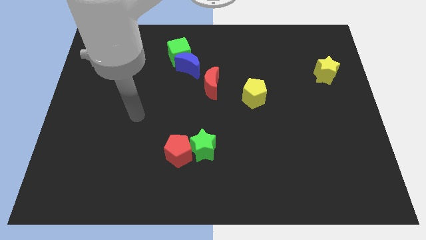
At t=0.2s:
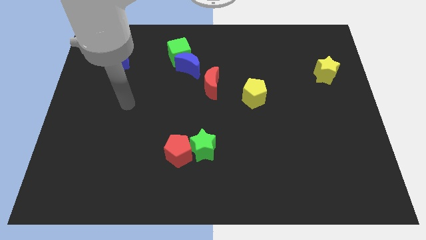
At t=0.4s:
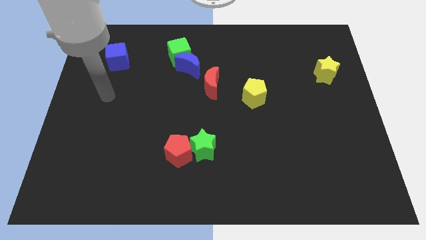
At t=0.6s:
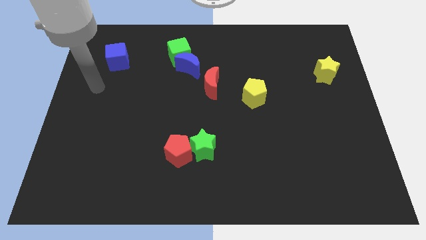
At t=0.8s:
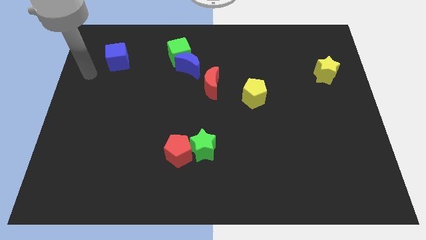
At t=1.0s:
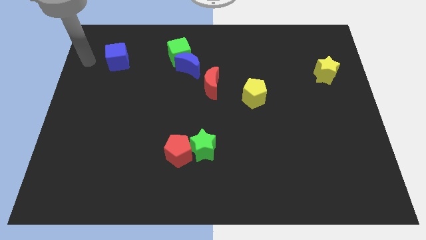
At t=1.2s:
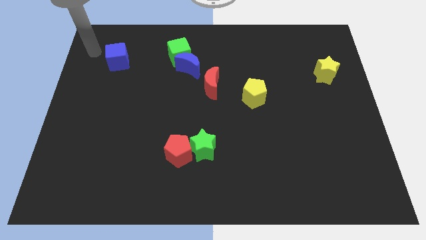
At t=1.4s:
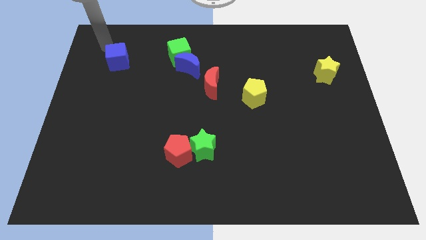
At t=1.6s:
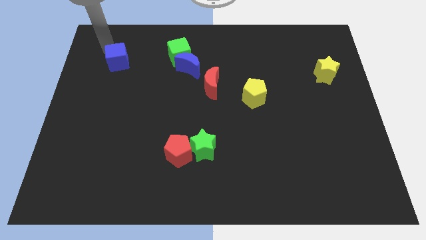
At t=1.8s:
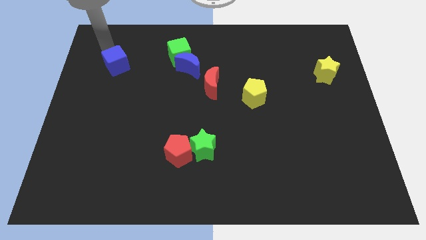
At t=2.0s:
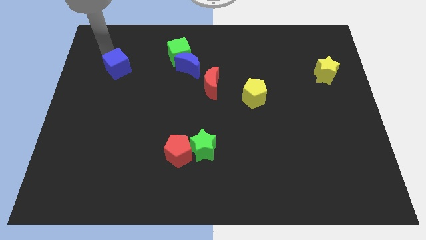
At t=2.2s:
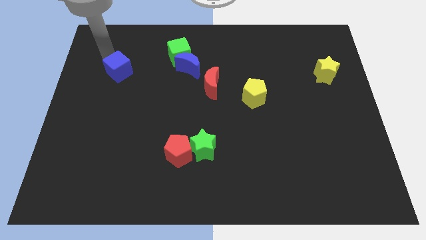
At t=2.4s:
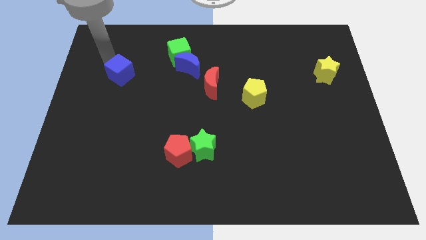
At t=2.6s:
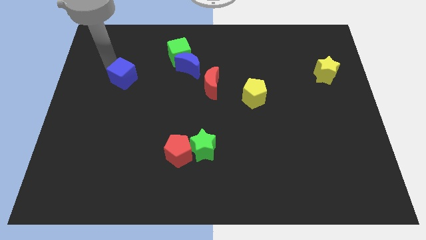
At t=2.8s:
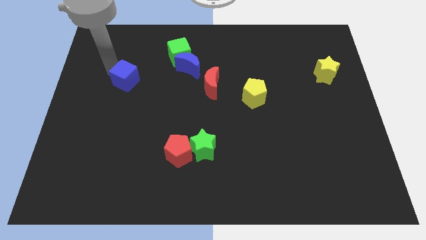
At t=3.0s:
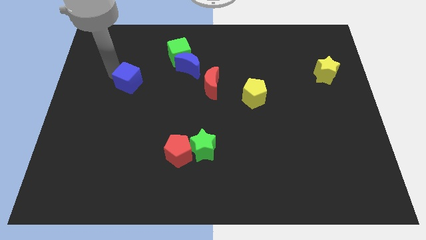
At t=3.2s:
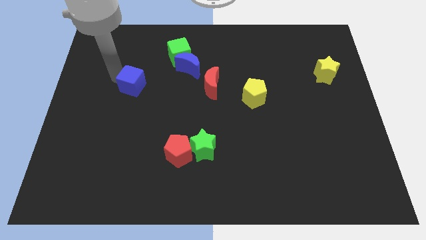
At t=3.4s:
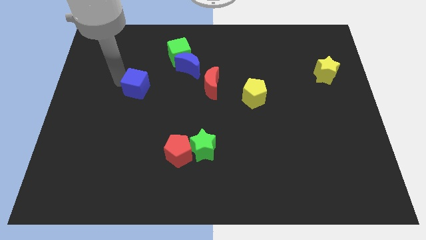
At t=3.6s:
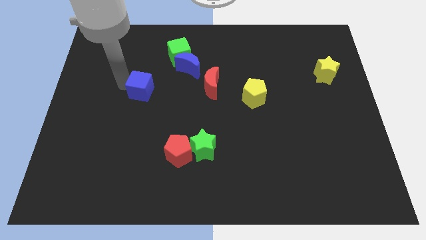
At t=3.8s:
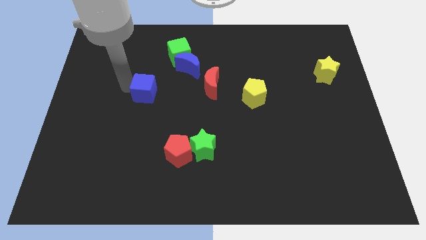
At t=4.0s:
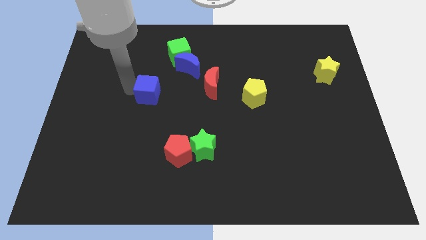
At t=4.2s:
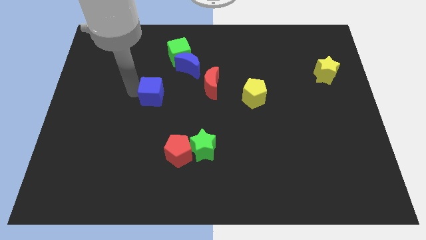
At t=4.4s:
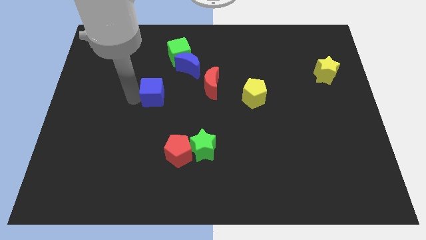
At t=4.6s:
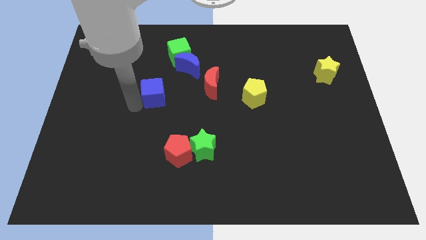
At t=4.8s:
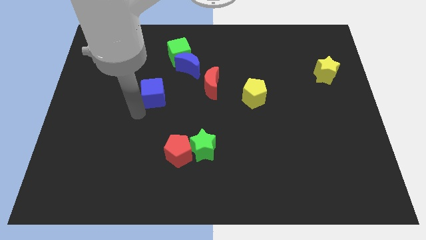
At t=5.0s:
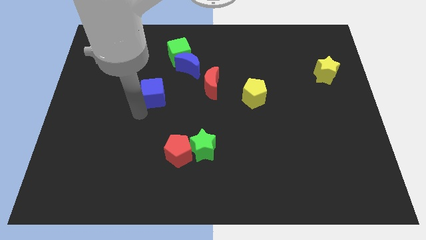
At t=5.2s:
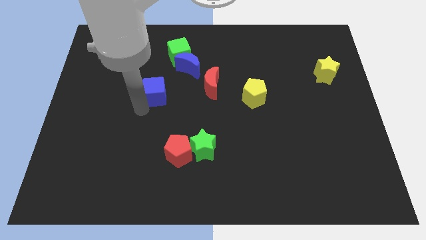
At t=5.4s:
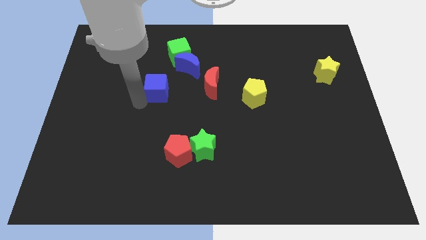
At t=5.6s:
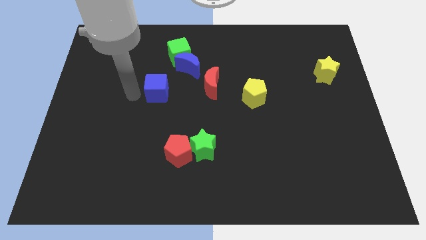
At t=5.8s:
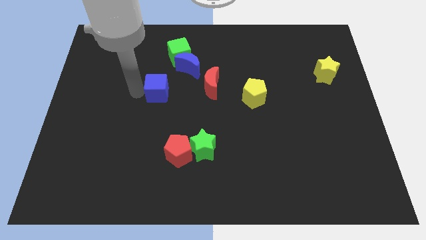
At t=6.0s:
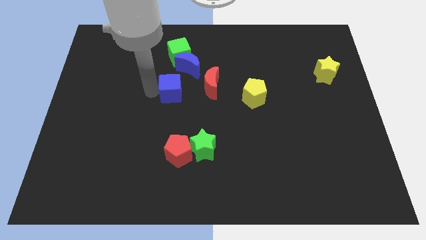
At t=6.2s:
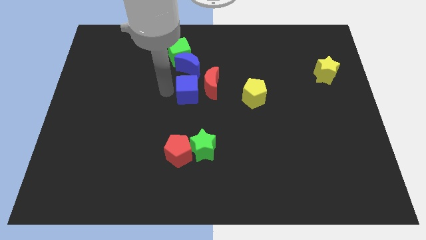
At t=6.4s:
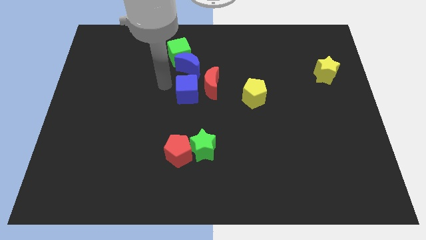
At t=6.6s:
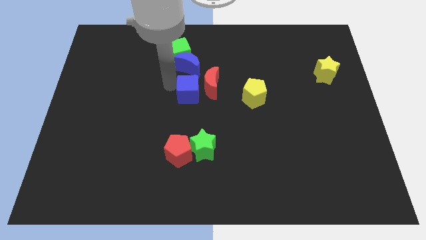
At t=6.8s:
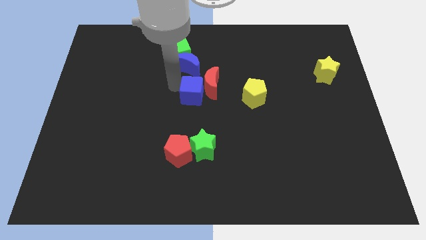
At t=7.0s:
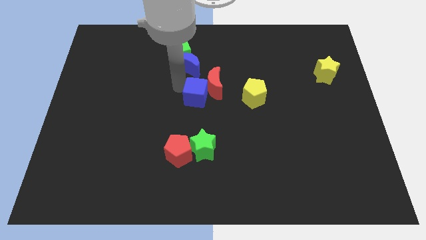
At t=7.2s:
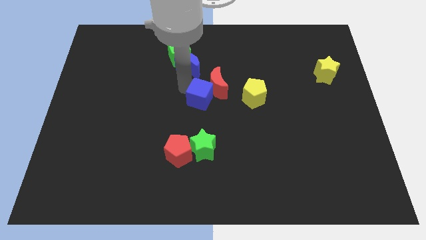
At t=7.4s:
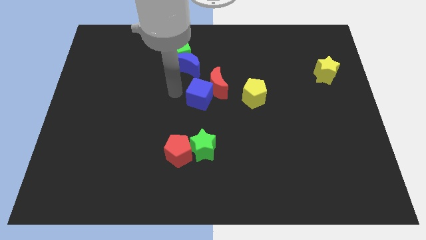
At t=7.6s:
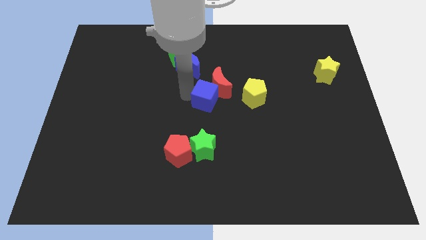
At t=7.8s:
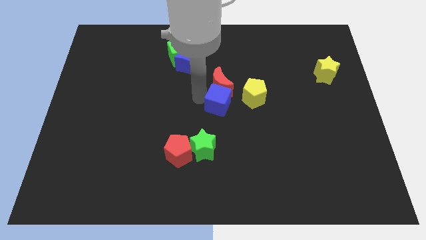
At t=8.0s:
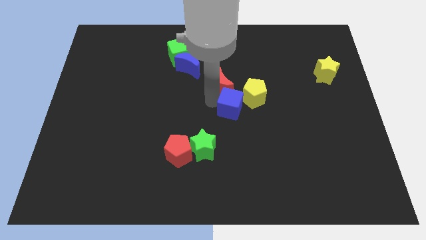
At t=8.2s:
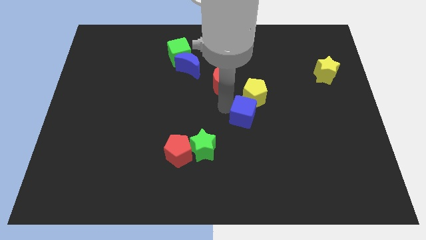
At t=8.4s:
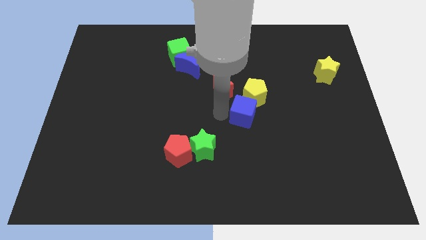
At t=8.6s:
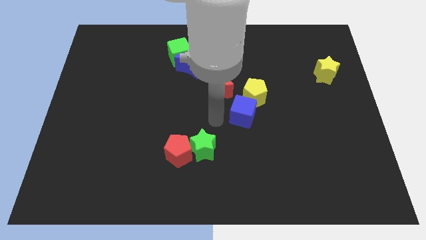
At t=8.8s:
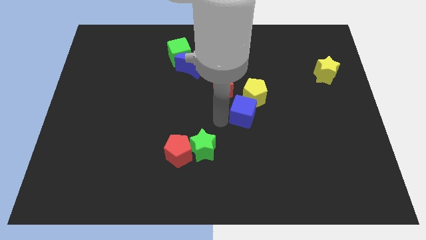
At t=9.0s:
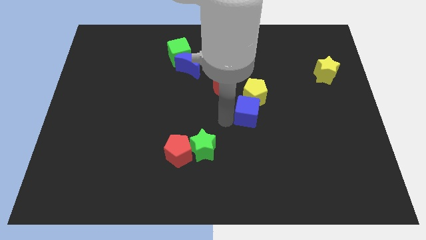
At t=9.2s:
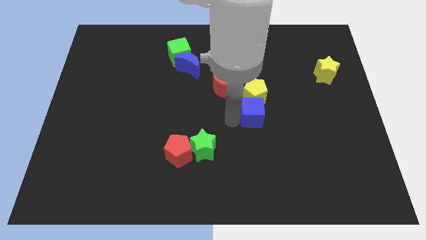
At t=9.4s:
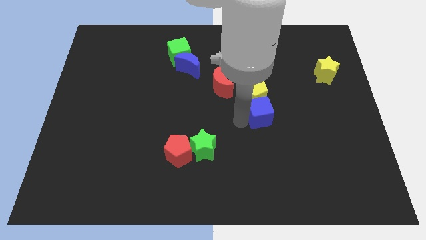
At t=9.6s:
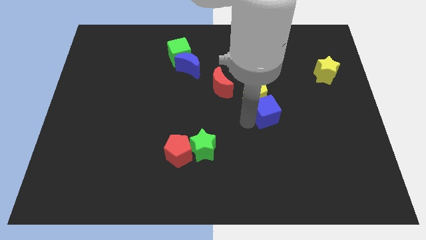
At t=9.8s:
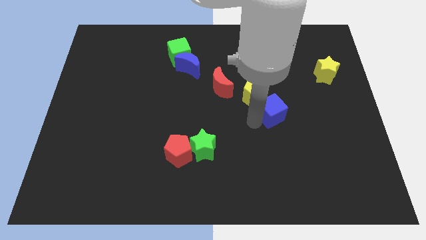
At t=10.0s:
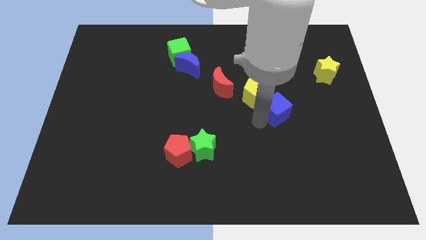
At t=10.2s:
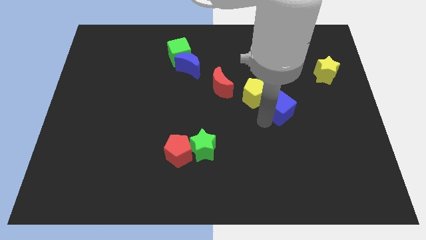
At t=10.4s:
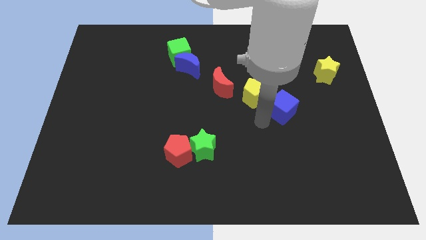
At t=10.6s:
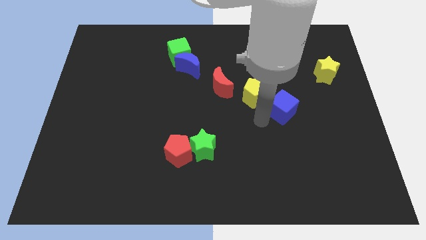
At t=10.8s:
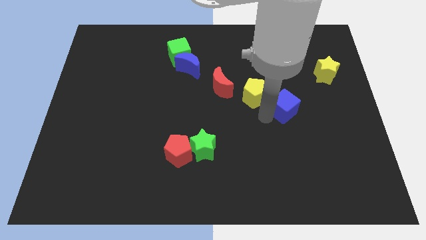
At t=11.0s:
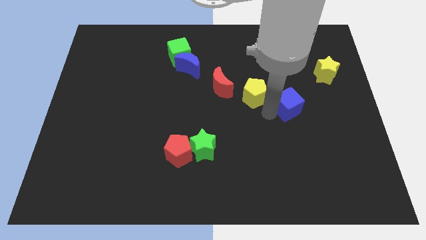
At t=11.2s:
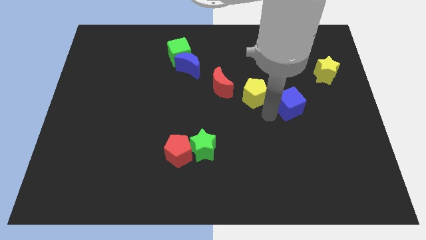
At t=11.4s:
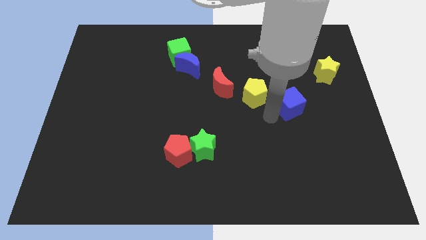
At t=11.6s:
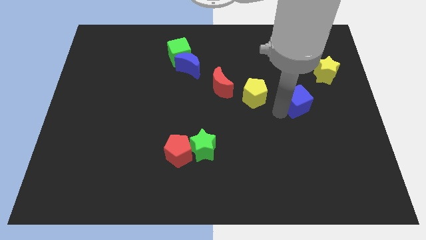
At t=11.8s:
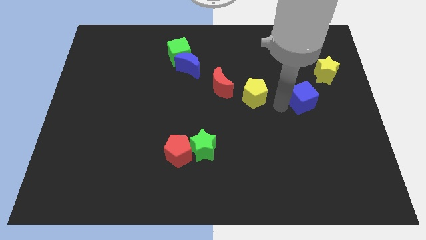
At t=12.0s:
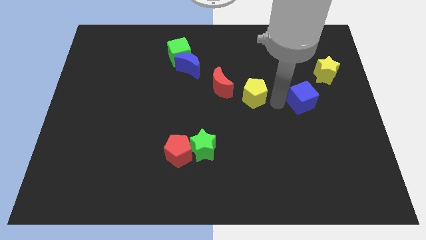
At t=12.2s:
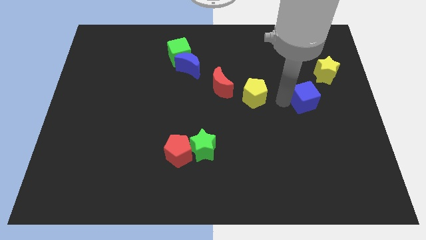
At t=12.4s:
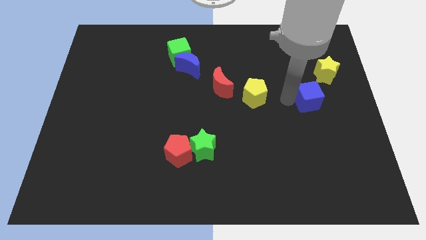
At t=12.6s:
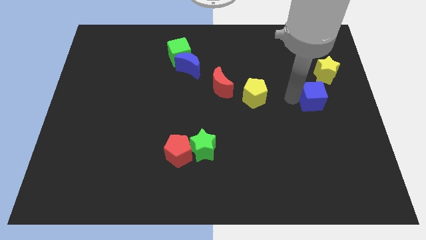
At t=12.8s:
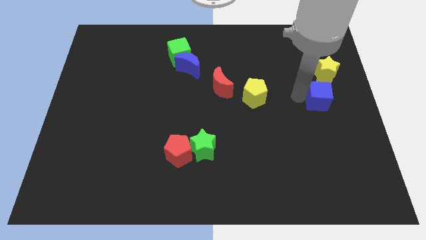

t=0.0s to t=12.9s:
slide the blue cube to the right side of the board

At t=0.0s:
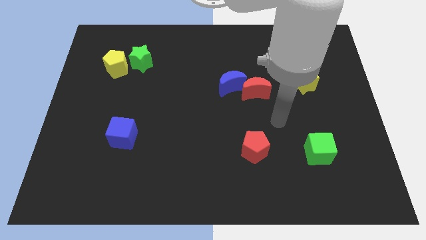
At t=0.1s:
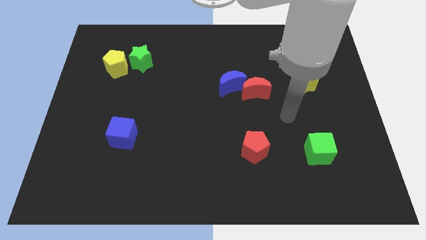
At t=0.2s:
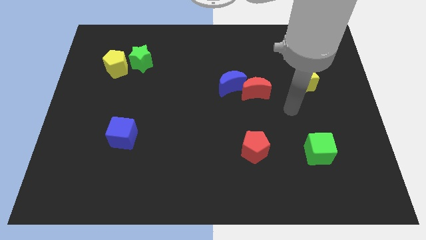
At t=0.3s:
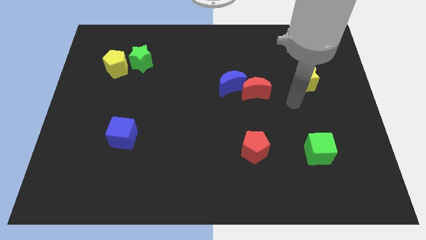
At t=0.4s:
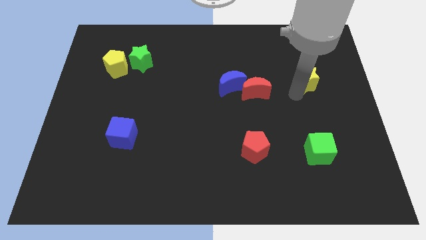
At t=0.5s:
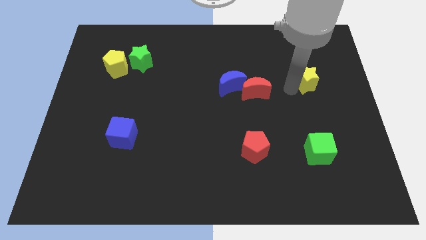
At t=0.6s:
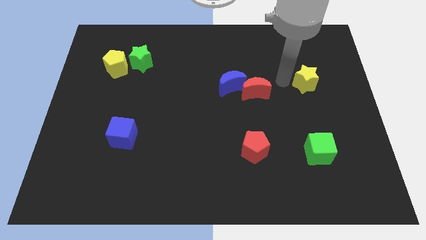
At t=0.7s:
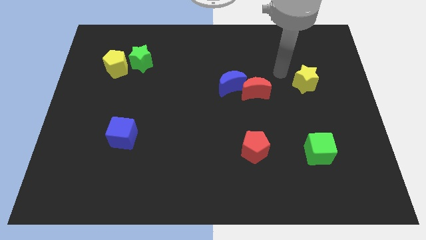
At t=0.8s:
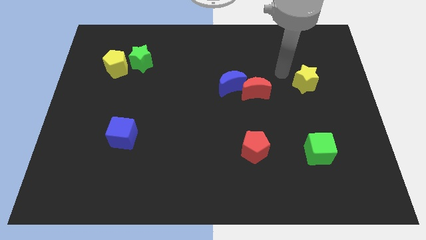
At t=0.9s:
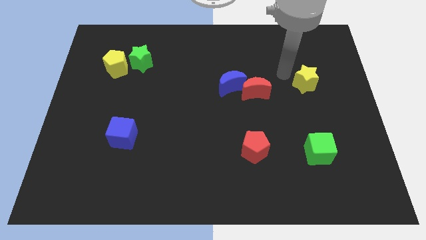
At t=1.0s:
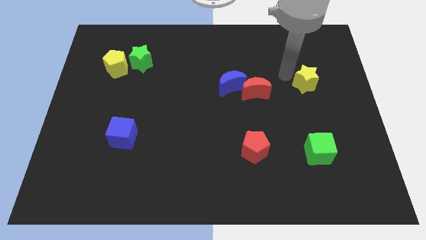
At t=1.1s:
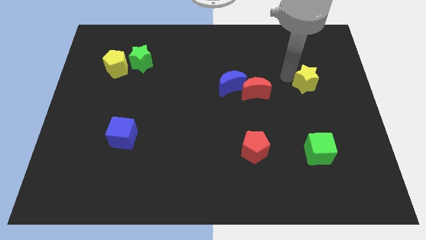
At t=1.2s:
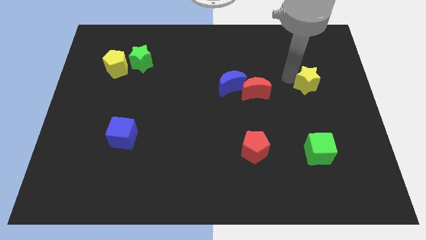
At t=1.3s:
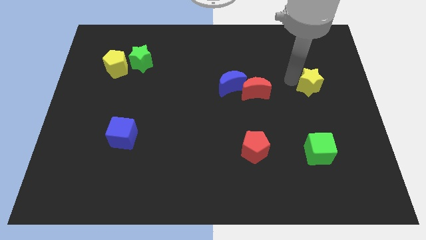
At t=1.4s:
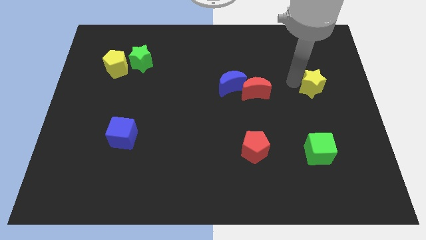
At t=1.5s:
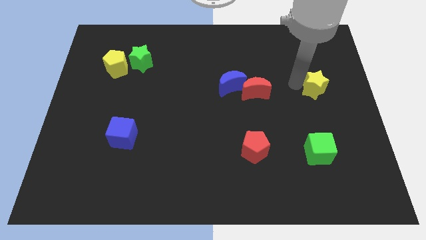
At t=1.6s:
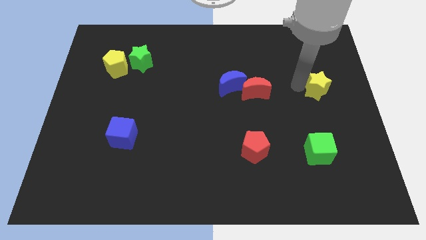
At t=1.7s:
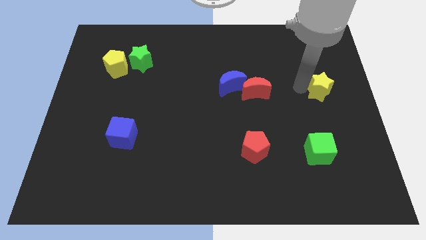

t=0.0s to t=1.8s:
put the yellow star to the right side
